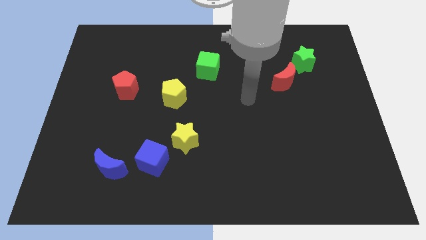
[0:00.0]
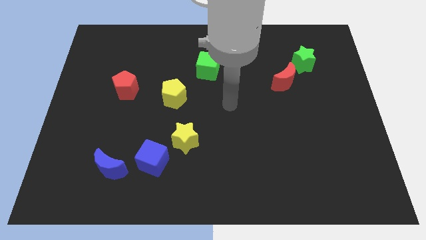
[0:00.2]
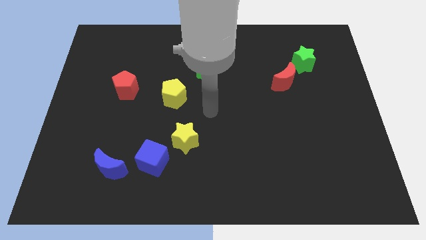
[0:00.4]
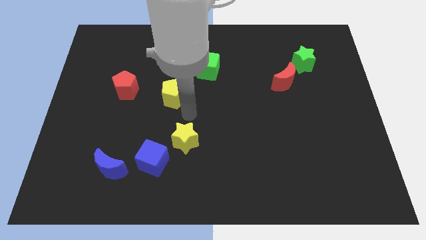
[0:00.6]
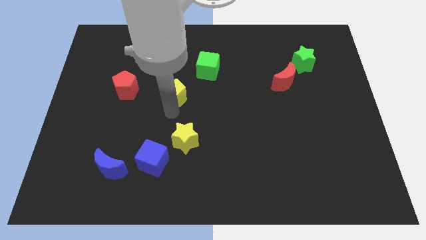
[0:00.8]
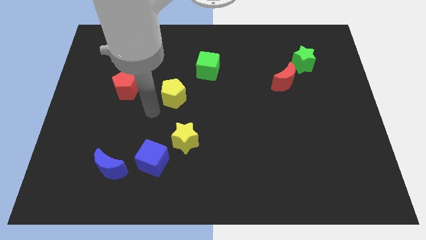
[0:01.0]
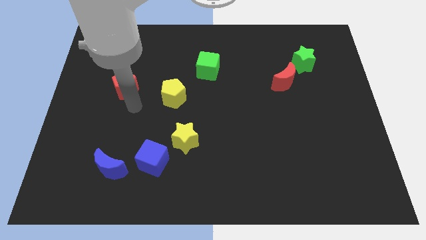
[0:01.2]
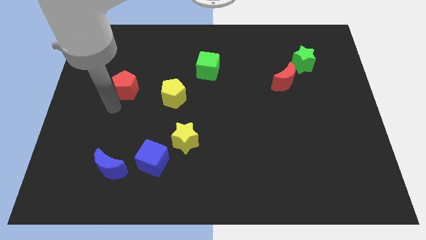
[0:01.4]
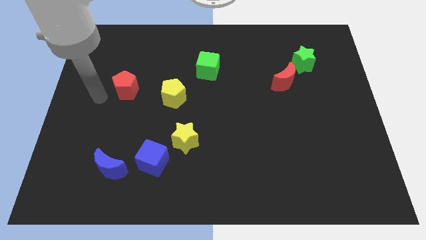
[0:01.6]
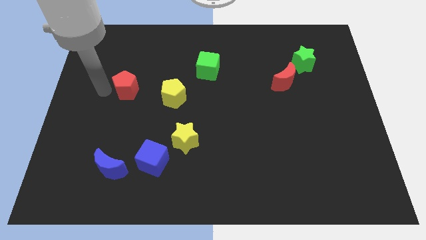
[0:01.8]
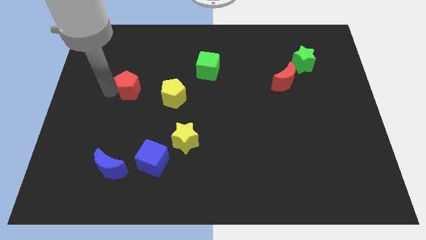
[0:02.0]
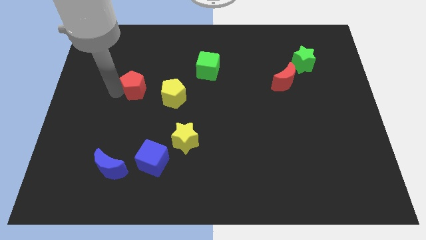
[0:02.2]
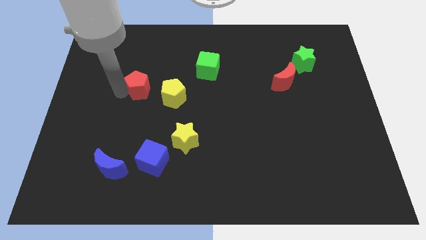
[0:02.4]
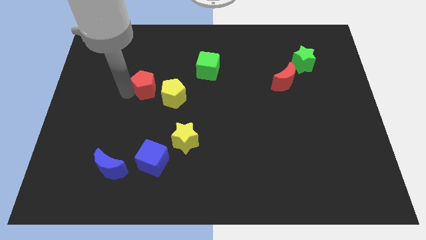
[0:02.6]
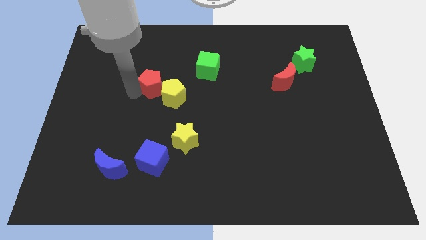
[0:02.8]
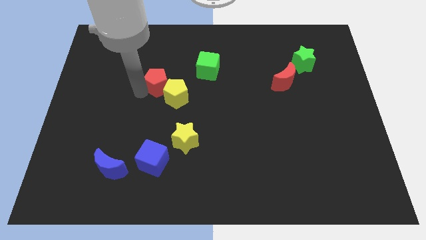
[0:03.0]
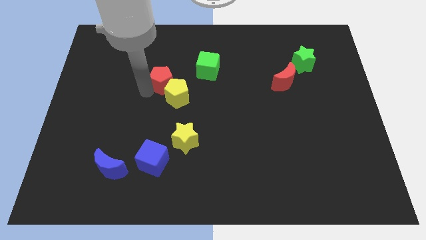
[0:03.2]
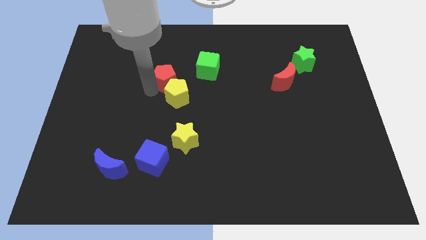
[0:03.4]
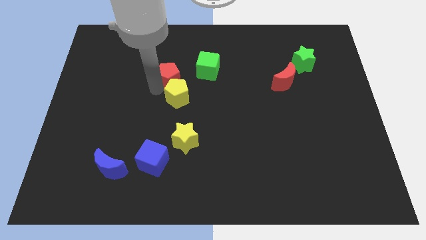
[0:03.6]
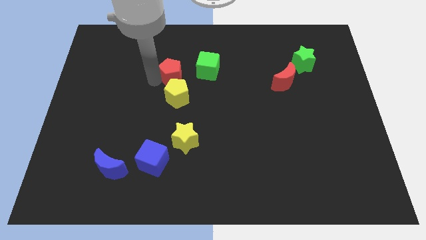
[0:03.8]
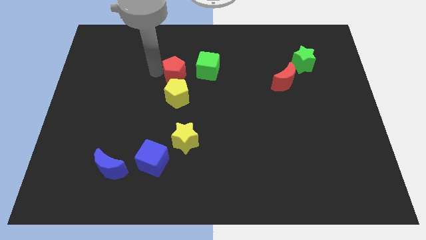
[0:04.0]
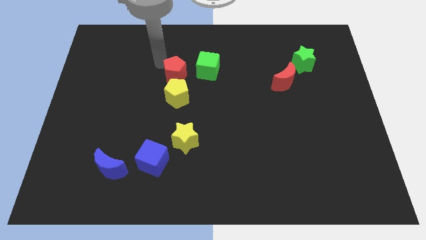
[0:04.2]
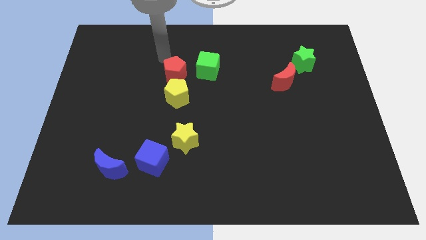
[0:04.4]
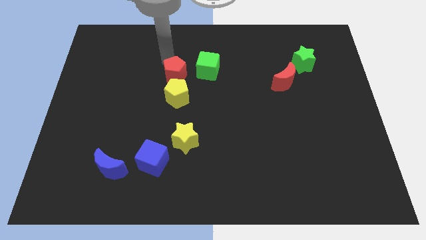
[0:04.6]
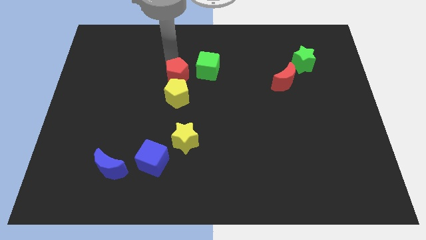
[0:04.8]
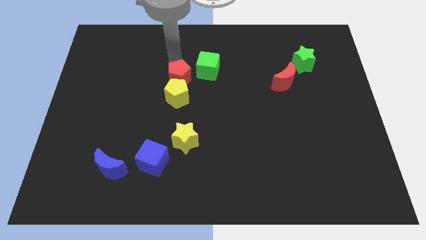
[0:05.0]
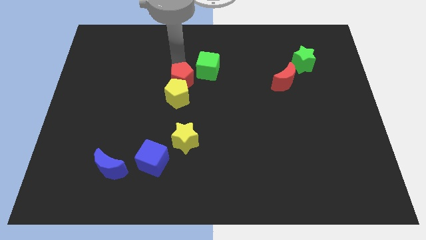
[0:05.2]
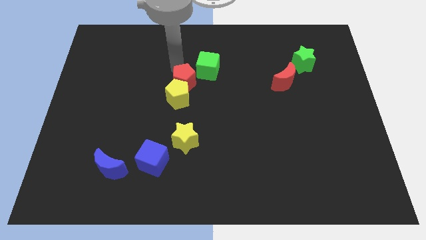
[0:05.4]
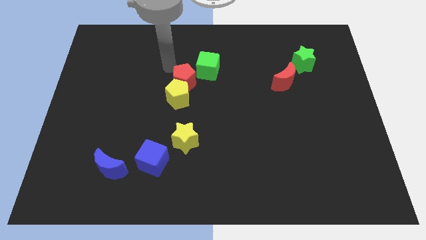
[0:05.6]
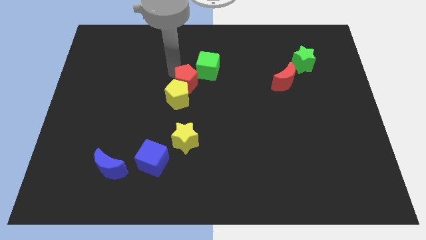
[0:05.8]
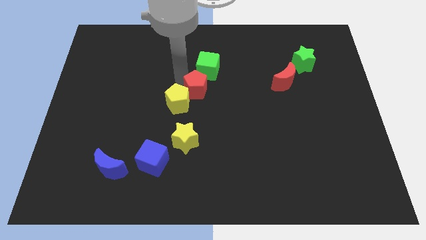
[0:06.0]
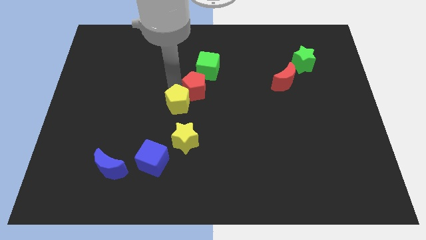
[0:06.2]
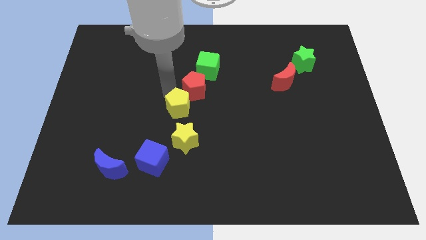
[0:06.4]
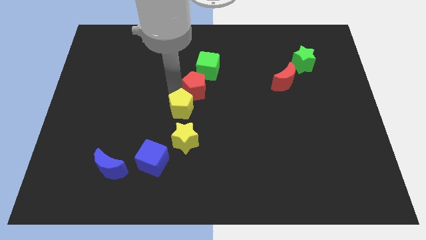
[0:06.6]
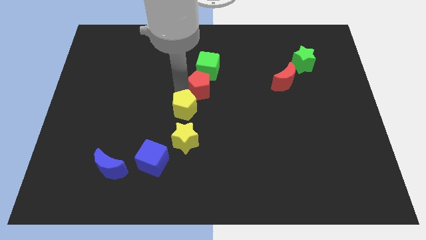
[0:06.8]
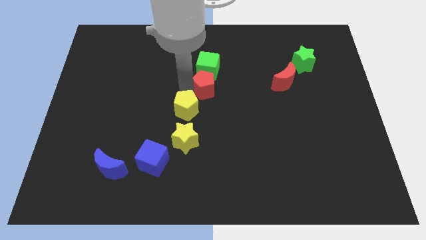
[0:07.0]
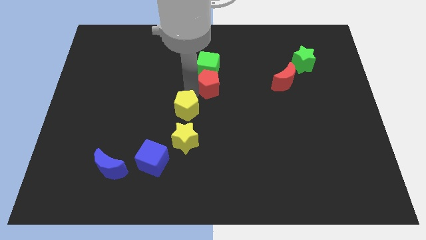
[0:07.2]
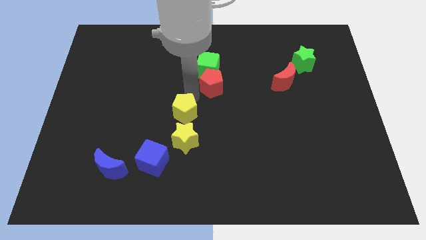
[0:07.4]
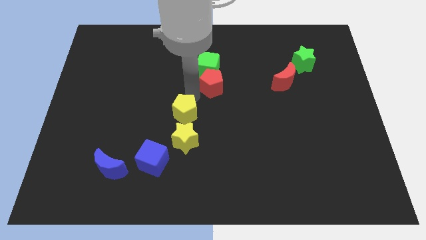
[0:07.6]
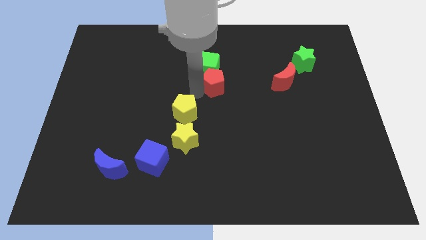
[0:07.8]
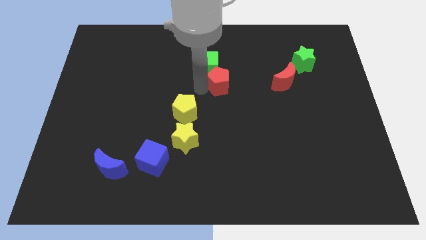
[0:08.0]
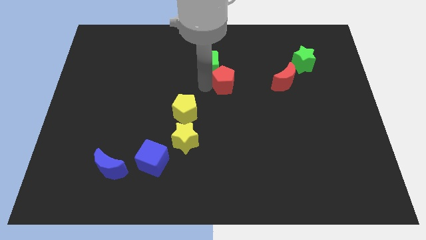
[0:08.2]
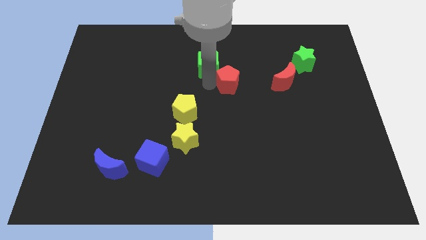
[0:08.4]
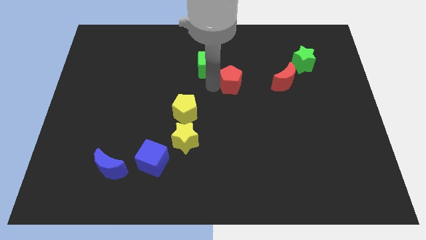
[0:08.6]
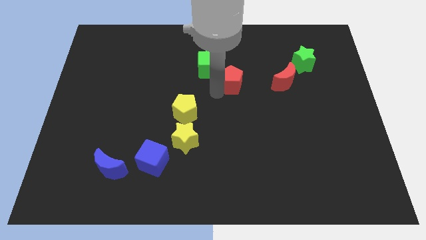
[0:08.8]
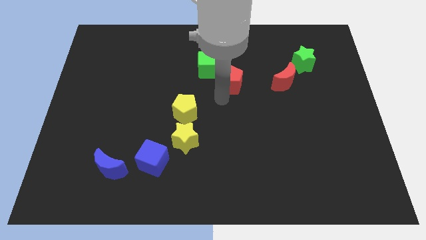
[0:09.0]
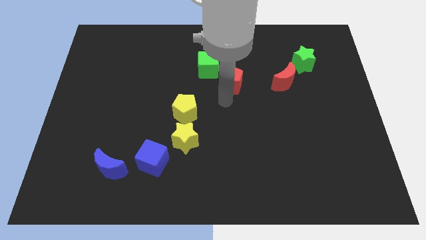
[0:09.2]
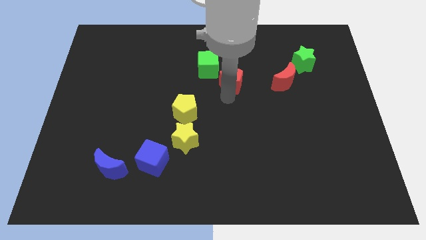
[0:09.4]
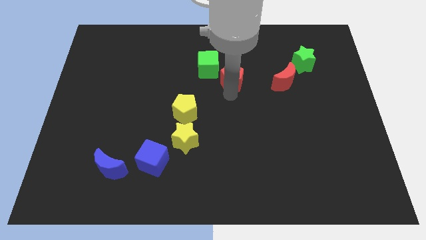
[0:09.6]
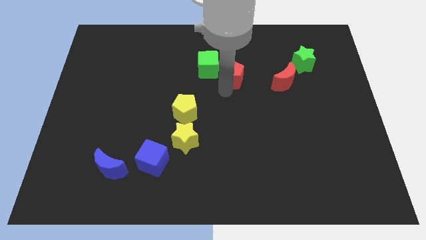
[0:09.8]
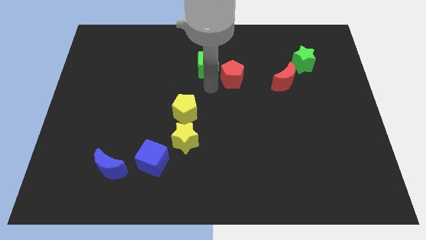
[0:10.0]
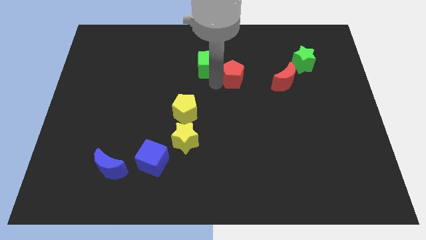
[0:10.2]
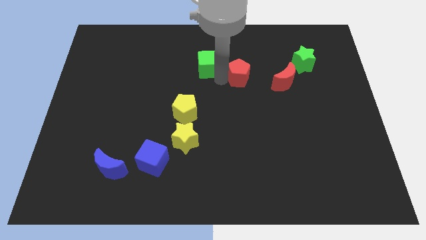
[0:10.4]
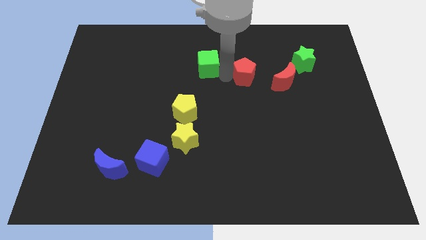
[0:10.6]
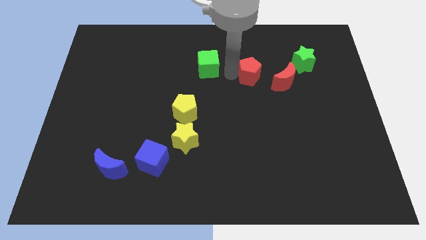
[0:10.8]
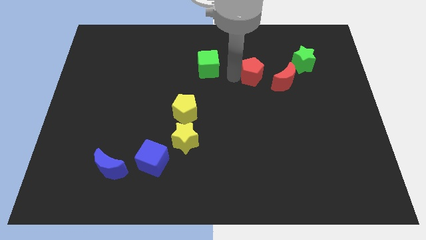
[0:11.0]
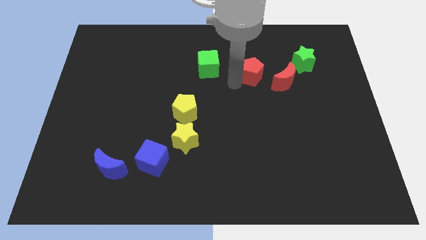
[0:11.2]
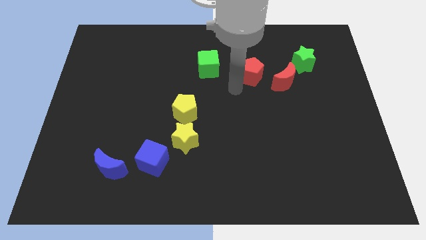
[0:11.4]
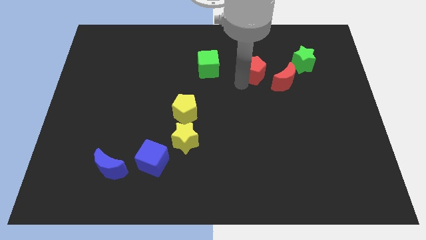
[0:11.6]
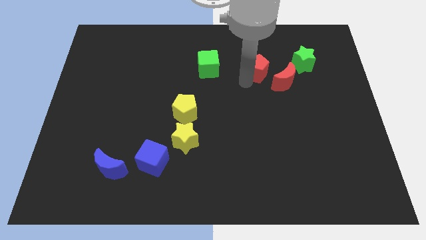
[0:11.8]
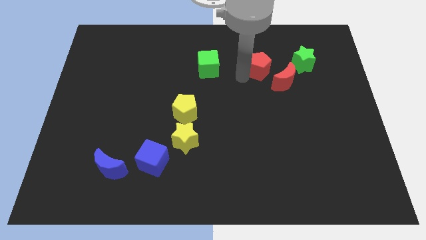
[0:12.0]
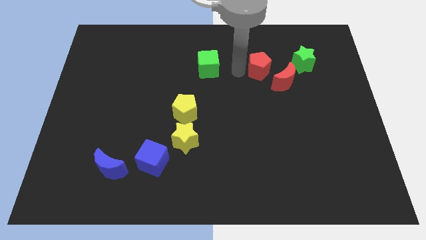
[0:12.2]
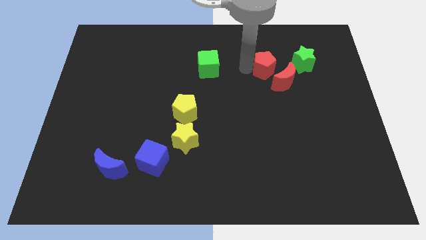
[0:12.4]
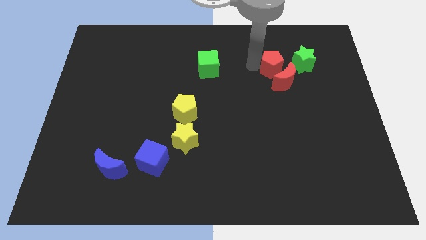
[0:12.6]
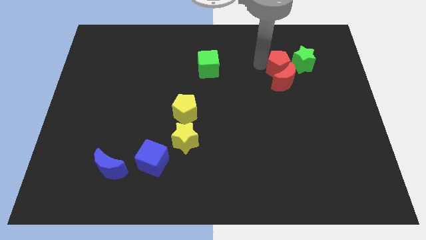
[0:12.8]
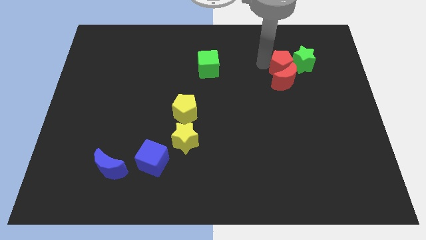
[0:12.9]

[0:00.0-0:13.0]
put the red pentagon next to the green star

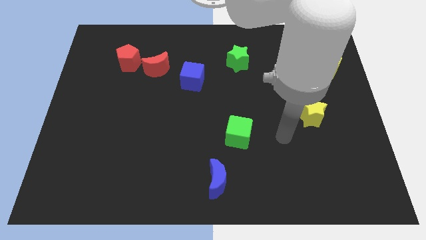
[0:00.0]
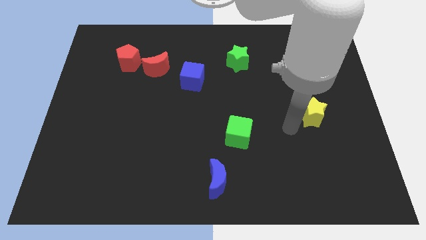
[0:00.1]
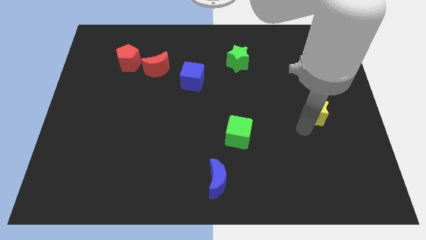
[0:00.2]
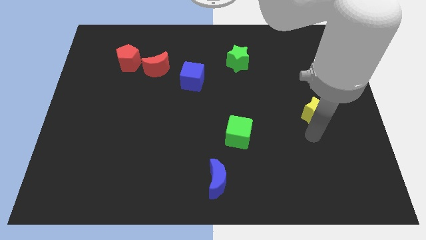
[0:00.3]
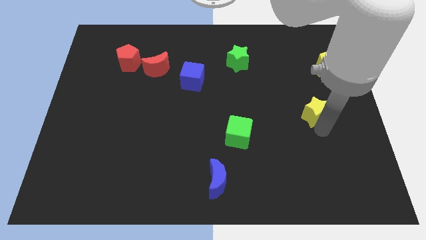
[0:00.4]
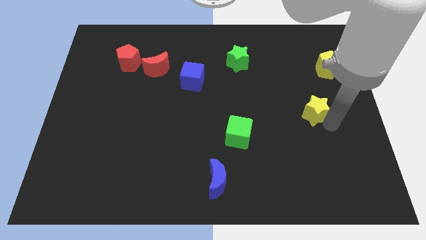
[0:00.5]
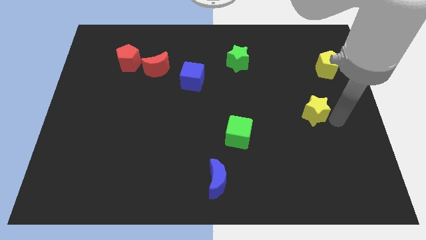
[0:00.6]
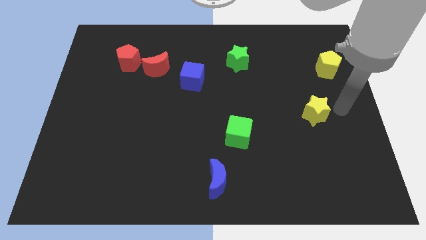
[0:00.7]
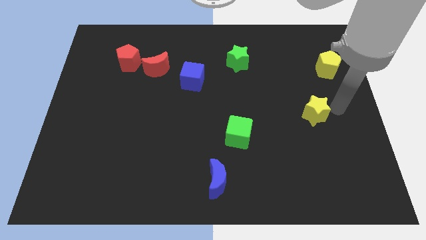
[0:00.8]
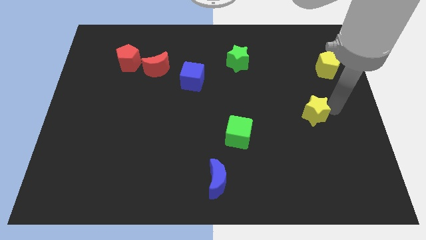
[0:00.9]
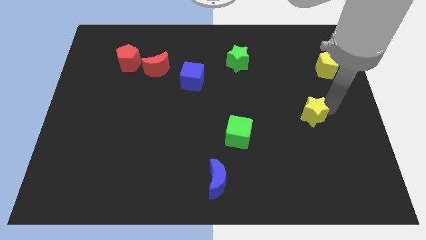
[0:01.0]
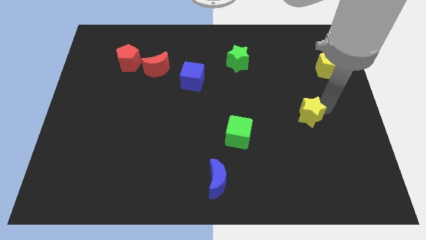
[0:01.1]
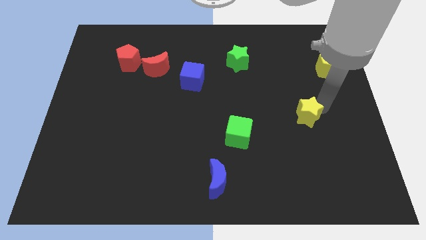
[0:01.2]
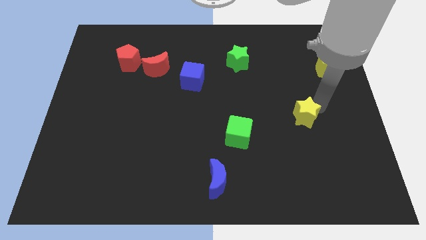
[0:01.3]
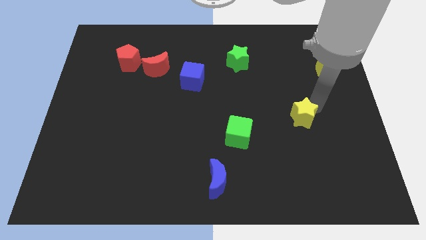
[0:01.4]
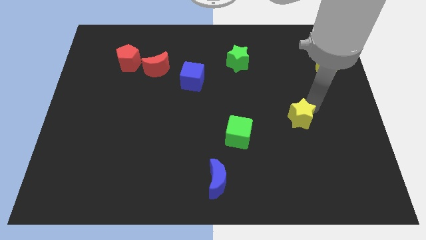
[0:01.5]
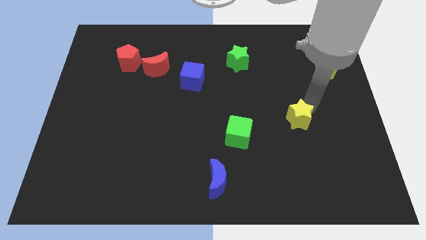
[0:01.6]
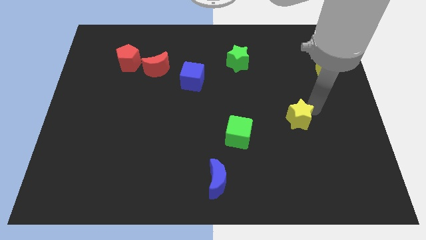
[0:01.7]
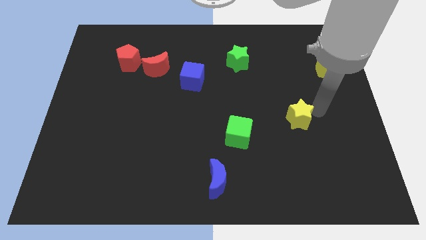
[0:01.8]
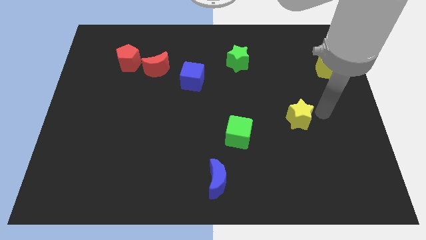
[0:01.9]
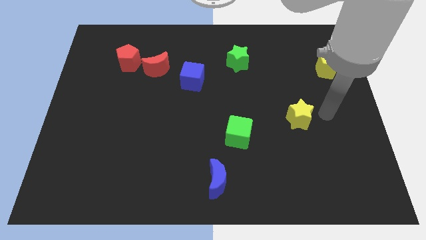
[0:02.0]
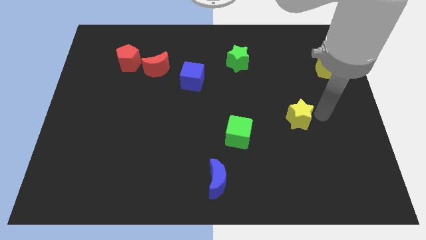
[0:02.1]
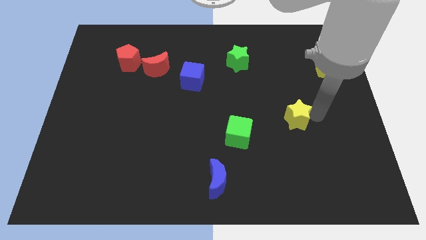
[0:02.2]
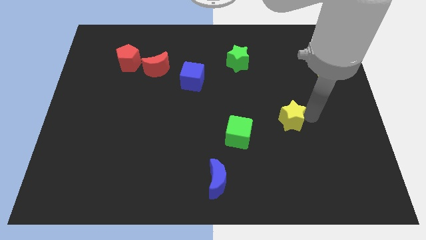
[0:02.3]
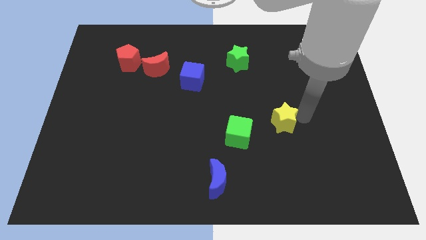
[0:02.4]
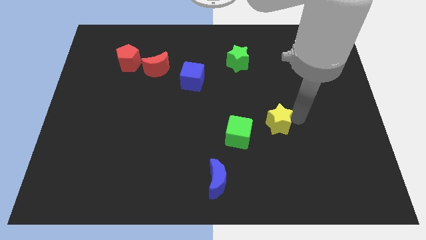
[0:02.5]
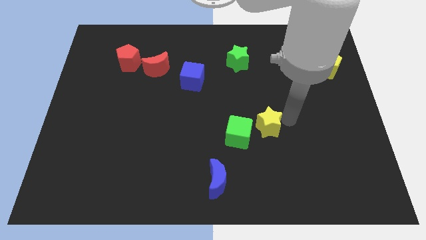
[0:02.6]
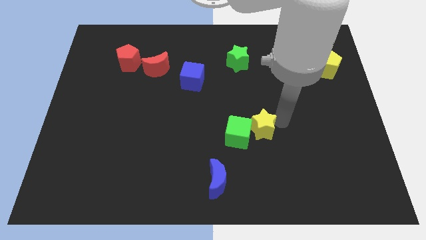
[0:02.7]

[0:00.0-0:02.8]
push the yellow star close to the green cube
